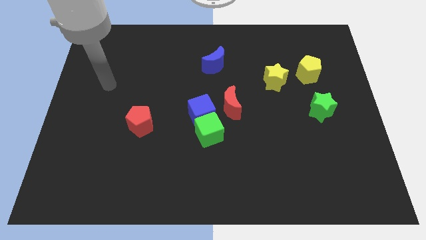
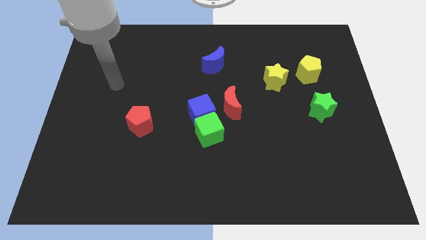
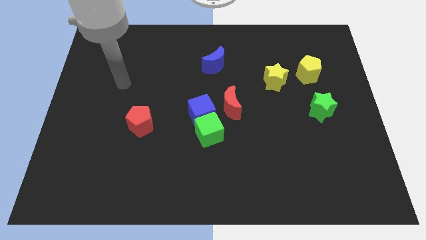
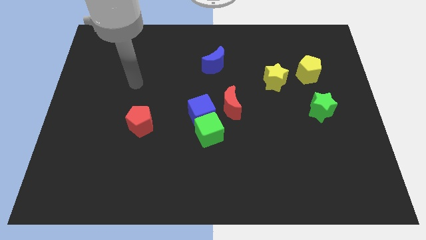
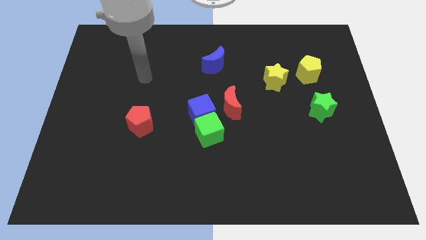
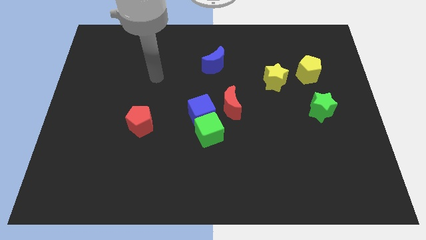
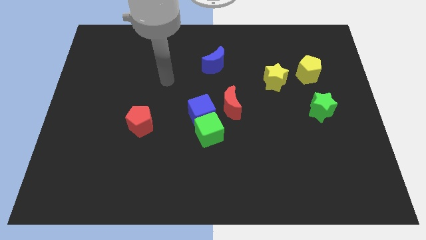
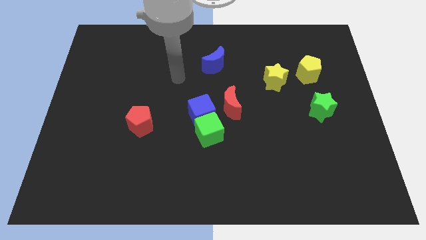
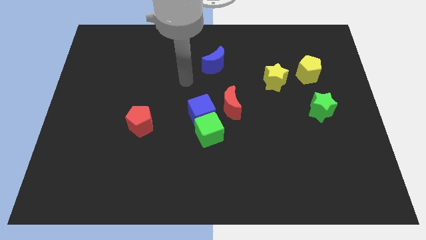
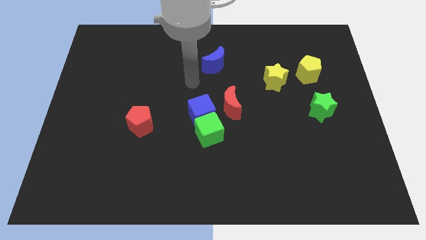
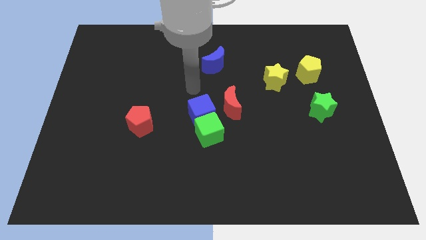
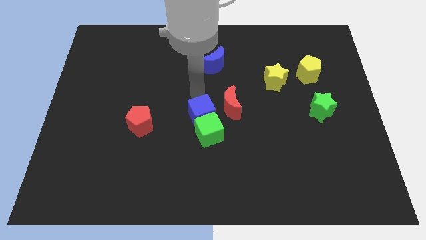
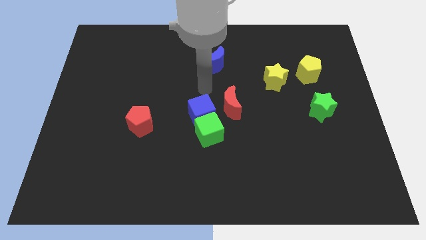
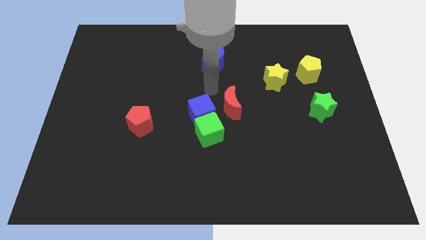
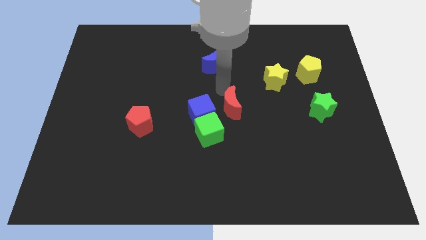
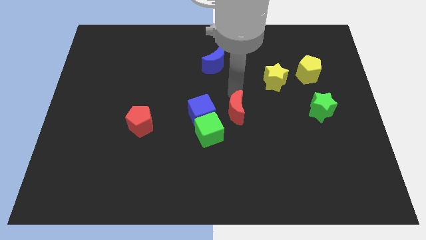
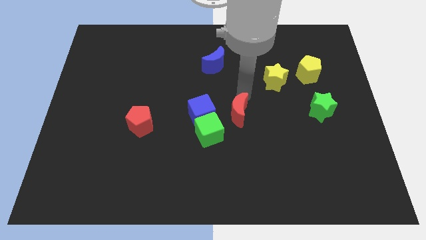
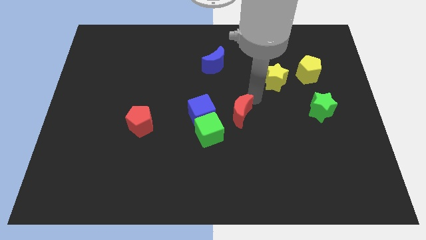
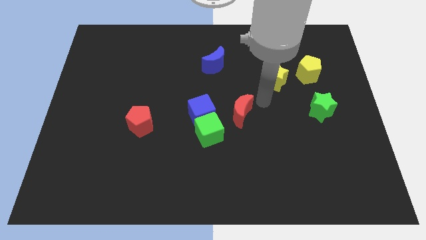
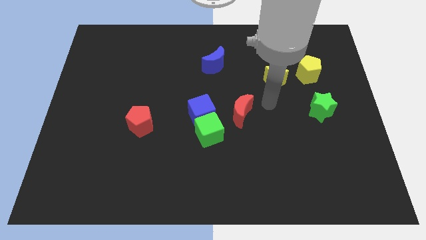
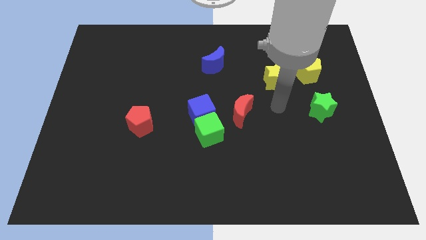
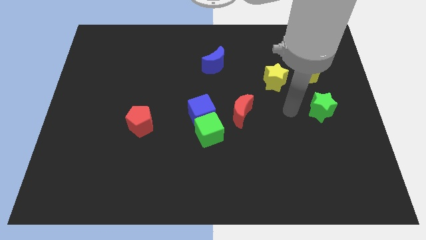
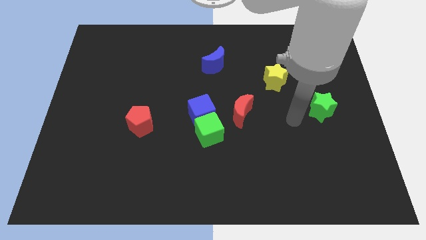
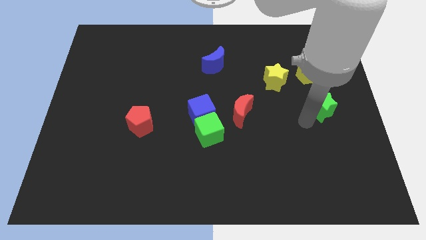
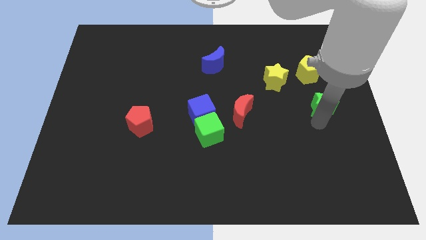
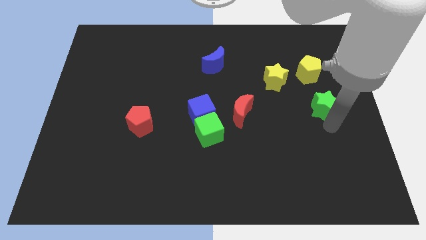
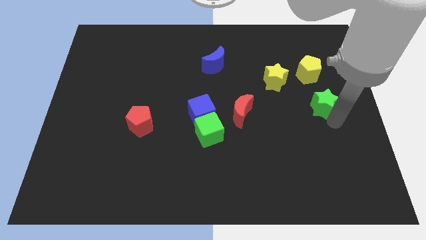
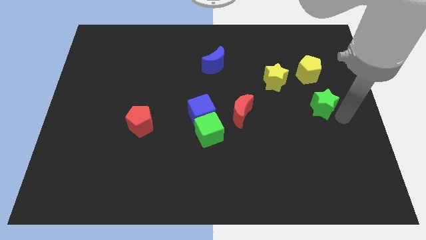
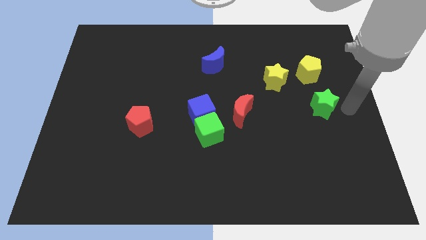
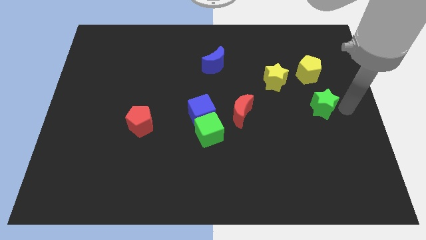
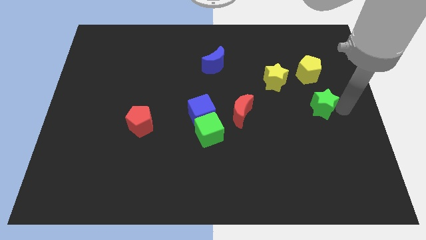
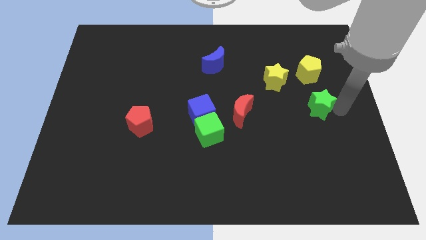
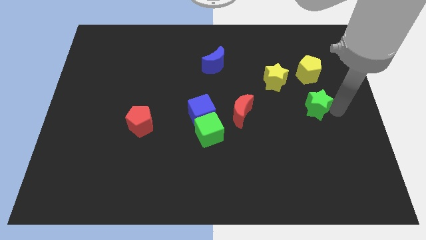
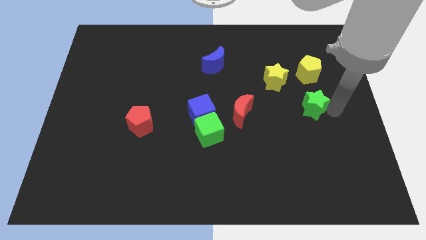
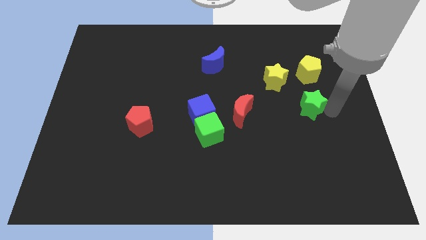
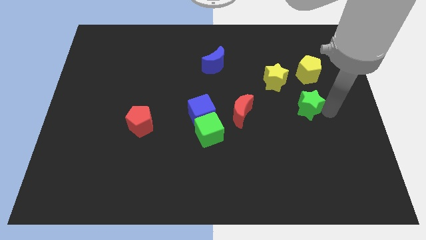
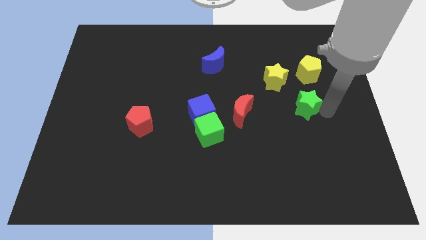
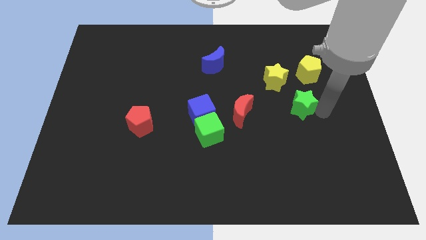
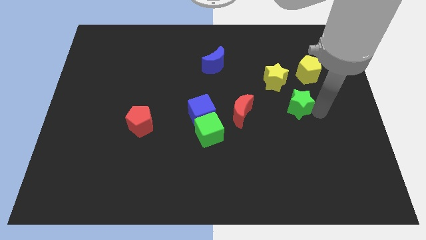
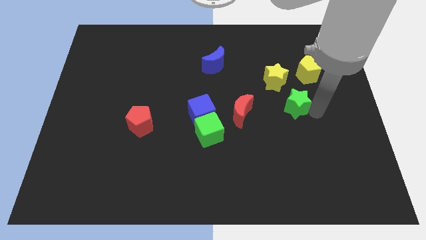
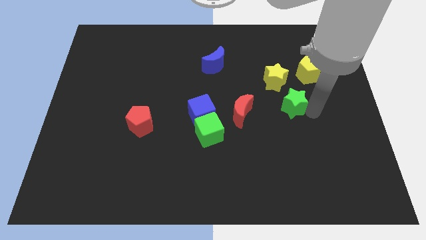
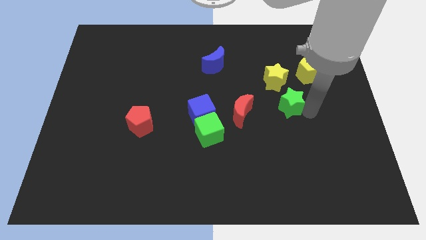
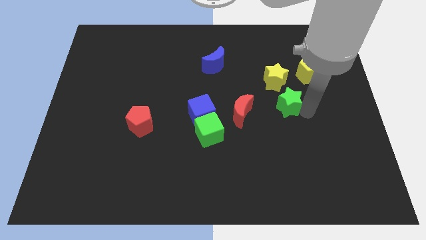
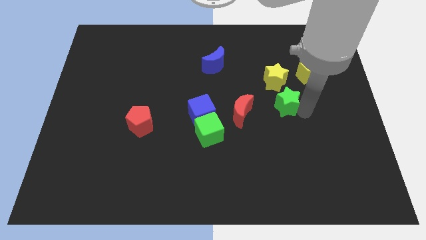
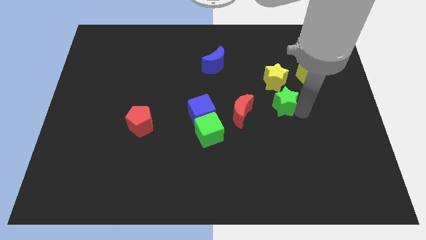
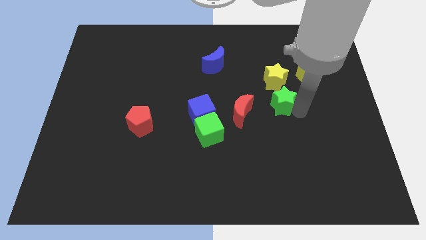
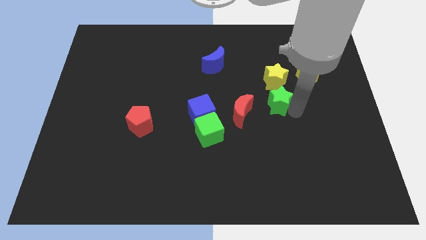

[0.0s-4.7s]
push the green star a little bit up and to the left

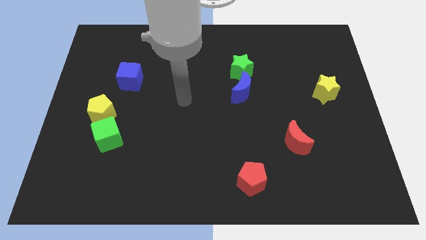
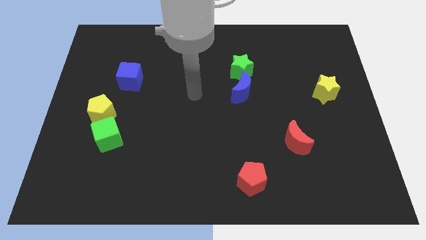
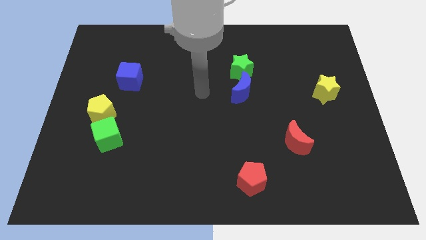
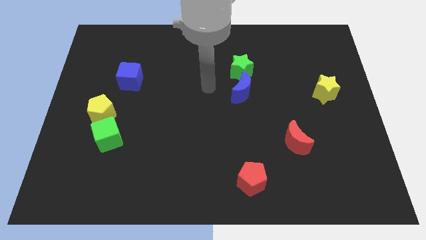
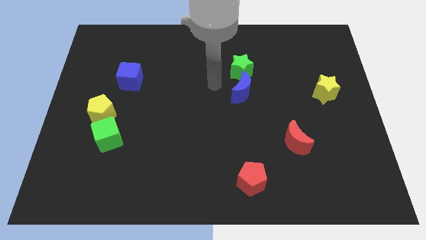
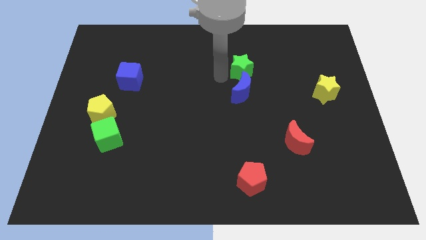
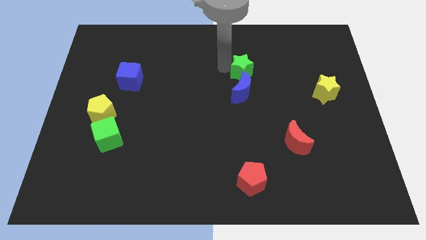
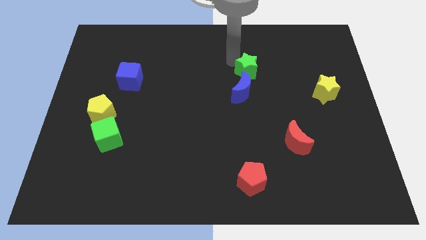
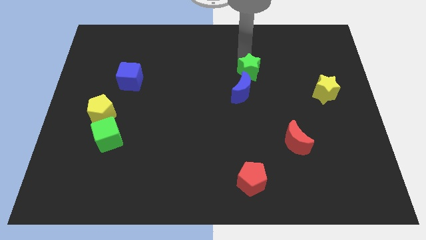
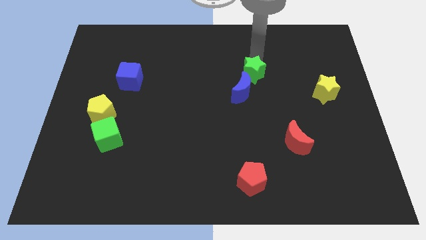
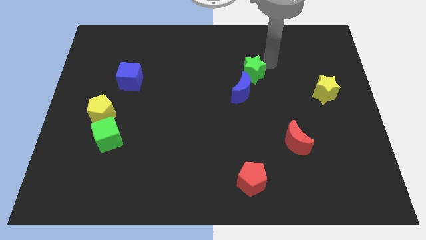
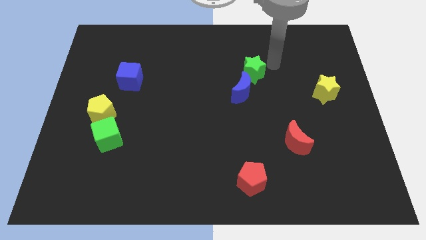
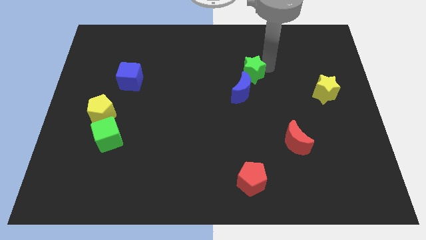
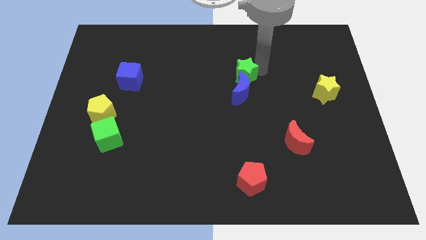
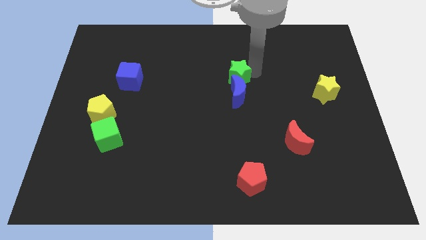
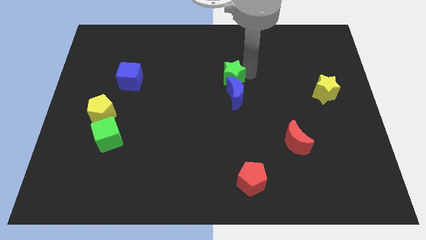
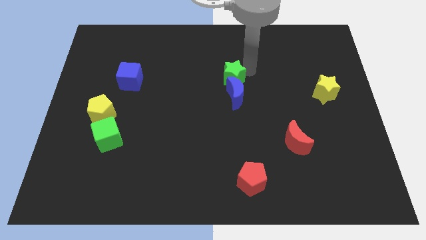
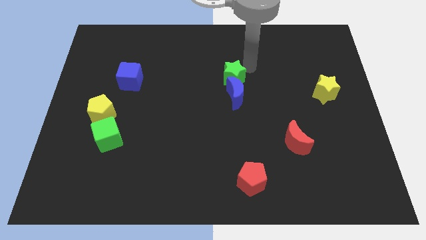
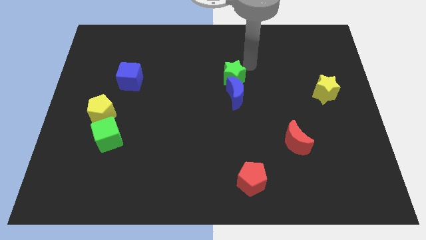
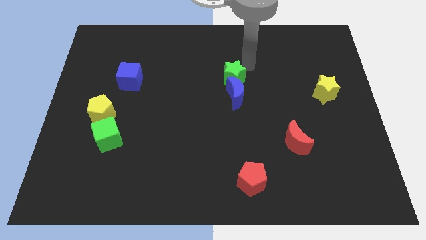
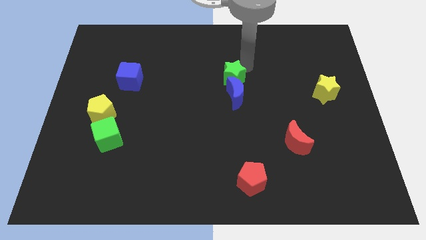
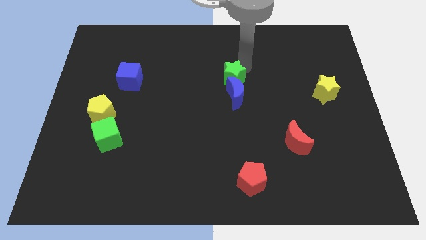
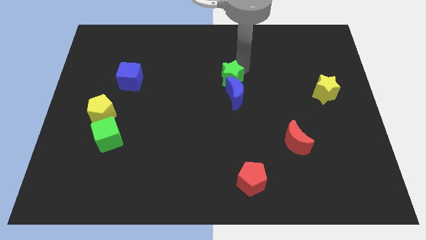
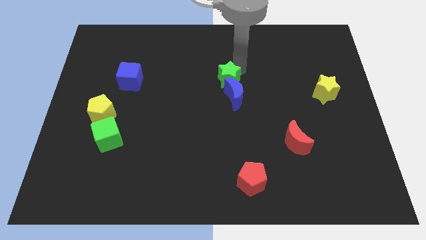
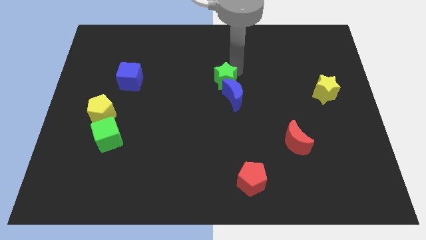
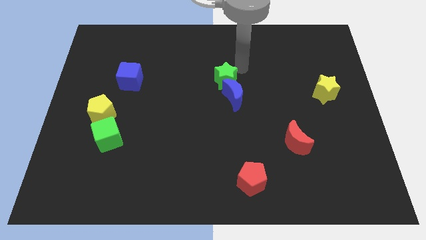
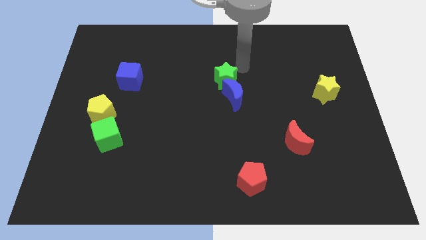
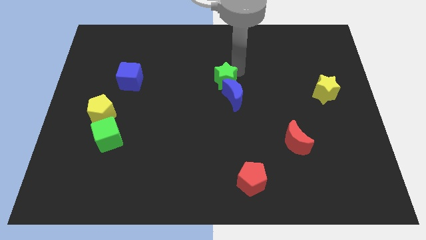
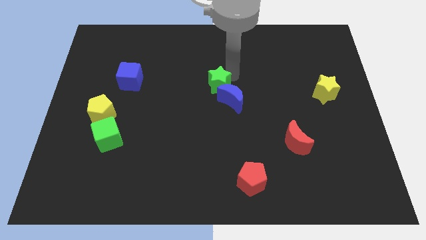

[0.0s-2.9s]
slightly push the green star diagonally downwards and left

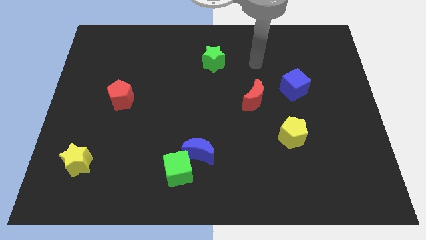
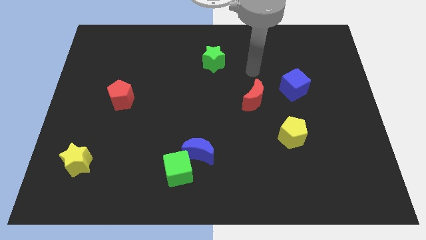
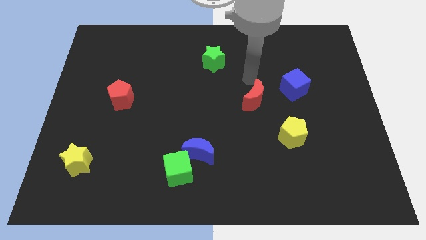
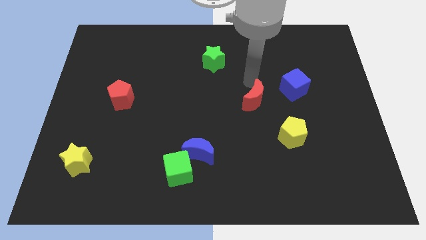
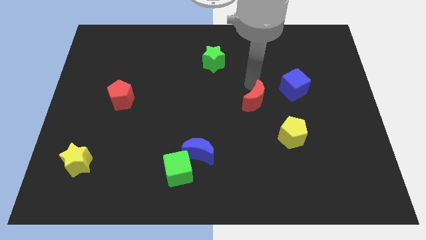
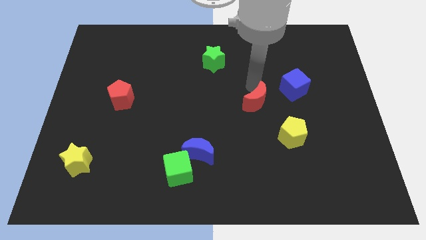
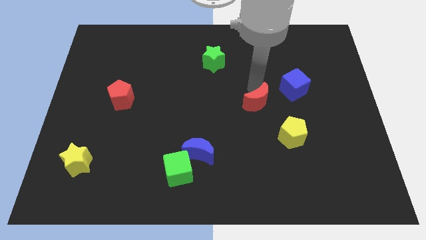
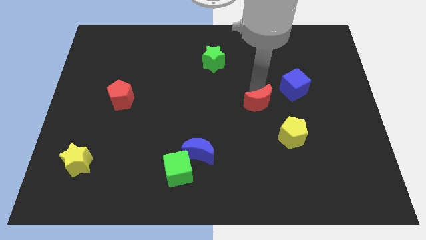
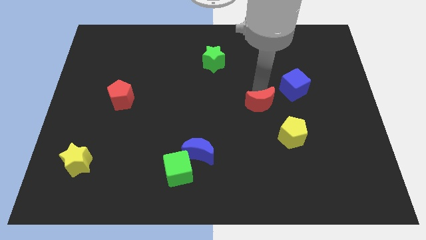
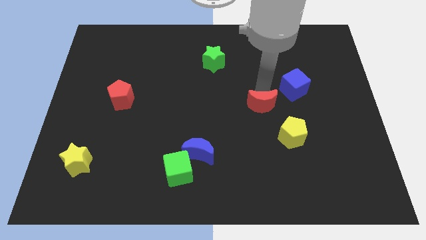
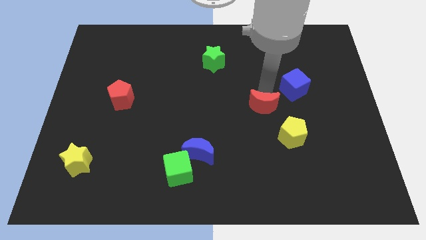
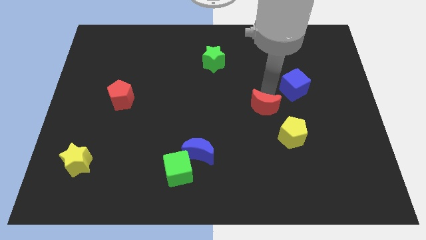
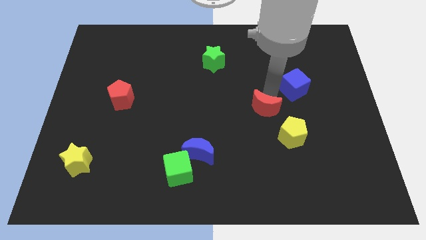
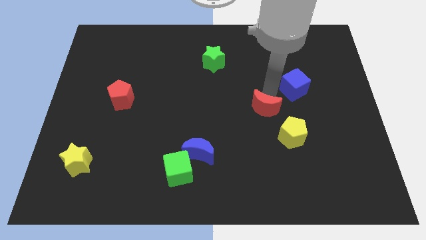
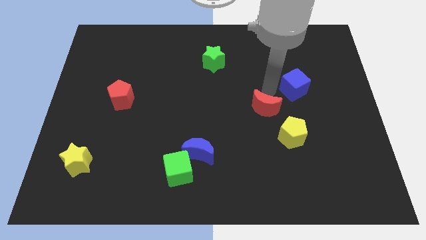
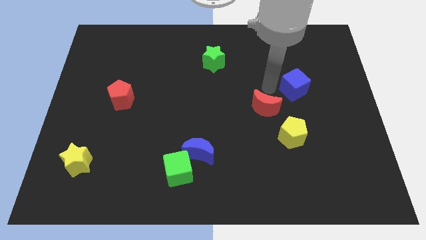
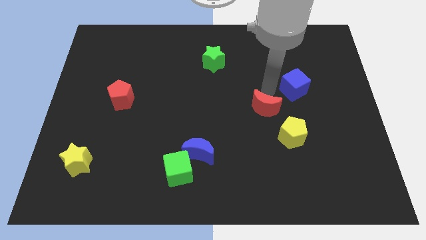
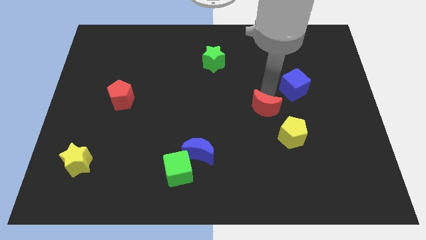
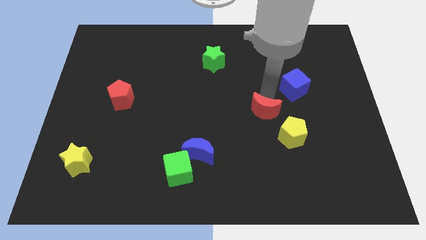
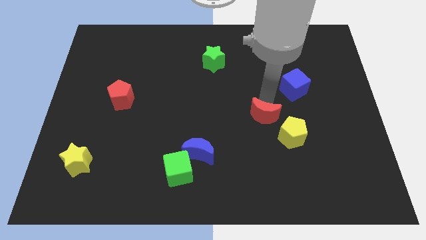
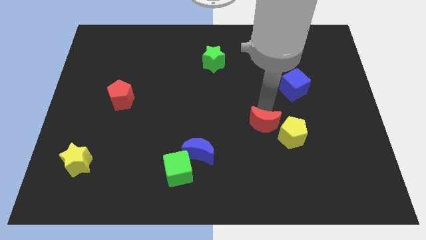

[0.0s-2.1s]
slightly slide the red moon downwards
